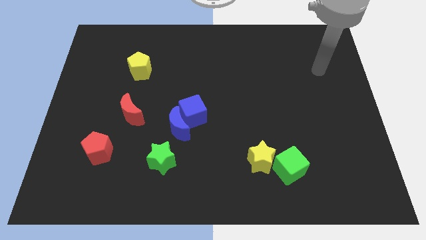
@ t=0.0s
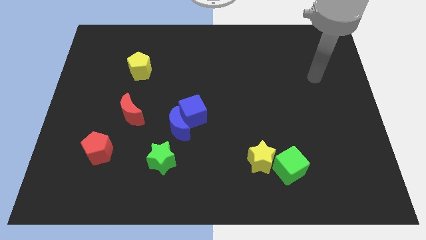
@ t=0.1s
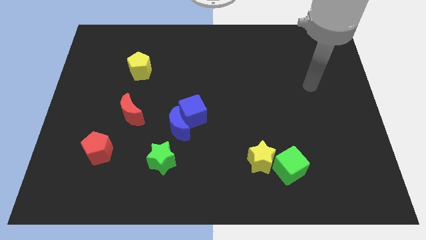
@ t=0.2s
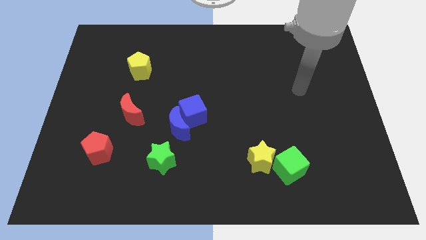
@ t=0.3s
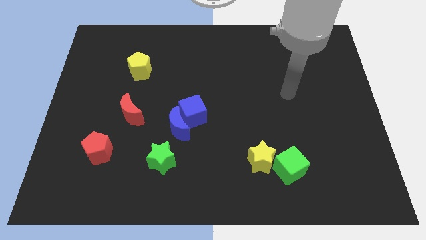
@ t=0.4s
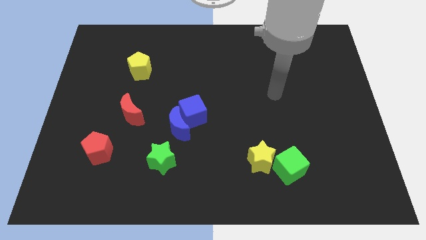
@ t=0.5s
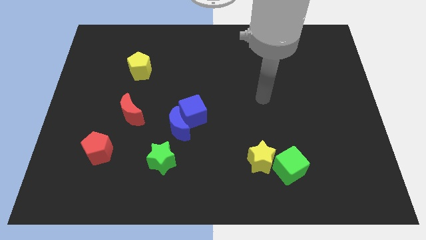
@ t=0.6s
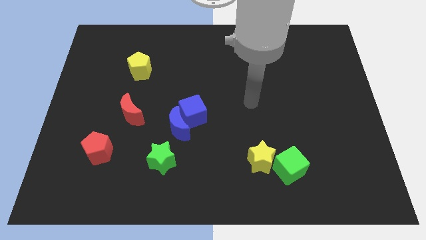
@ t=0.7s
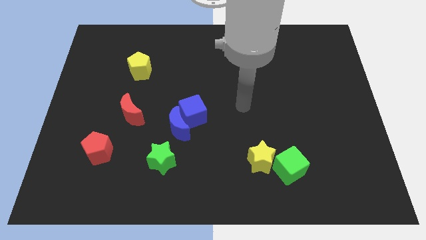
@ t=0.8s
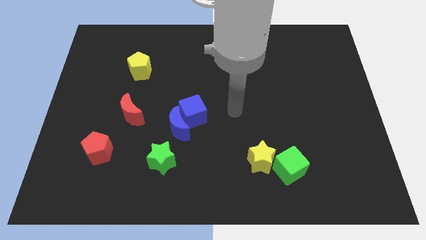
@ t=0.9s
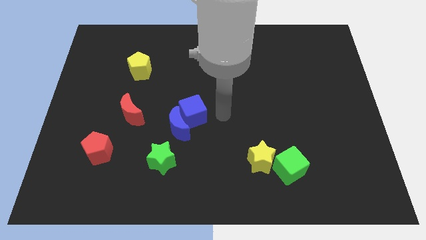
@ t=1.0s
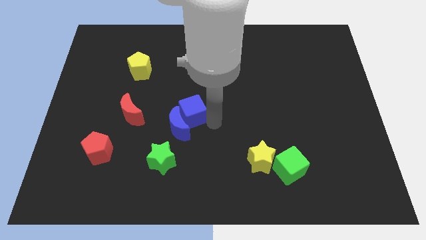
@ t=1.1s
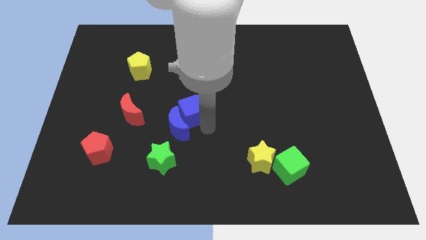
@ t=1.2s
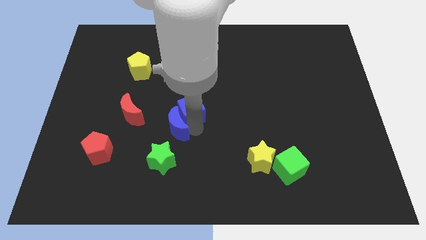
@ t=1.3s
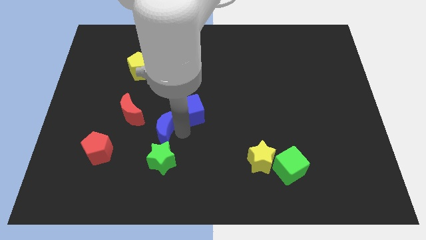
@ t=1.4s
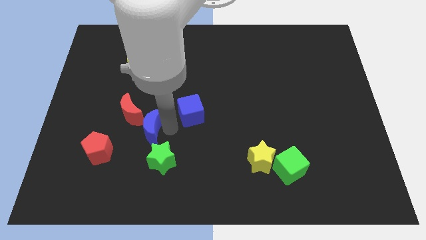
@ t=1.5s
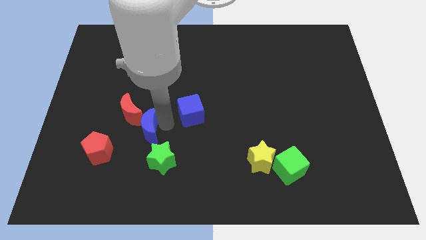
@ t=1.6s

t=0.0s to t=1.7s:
move the blue cube away from the blue moon

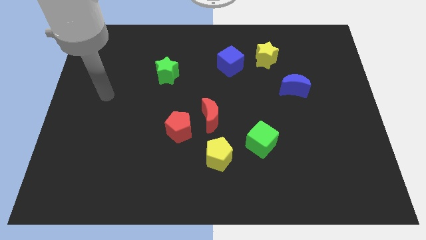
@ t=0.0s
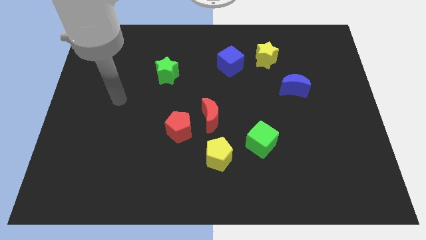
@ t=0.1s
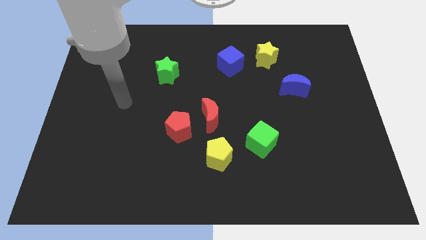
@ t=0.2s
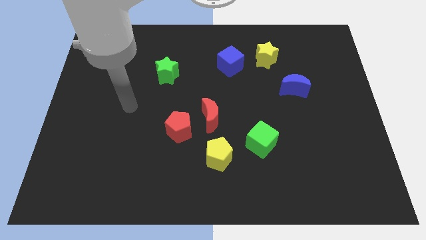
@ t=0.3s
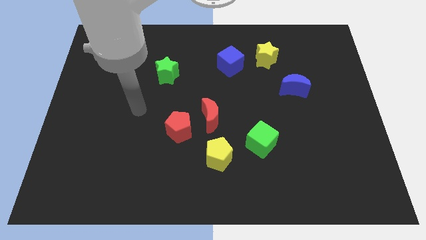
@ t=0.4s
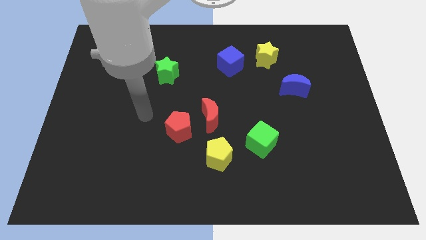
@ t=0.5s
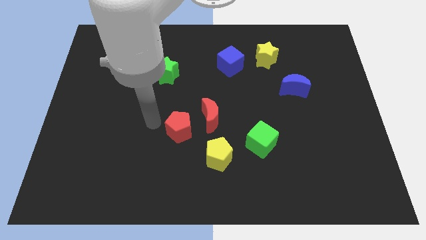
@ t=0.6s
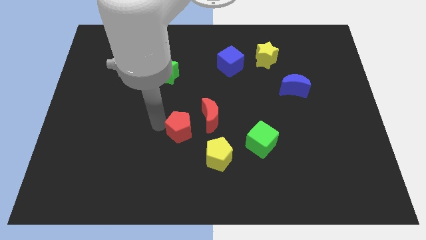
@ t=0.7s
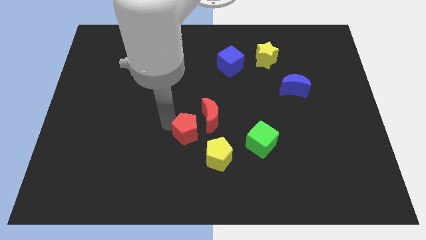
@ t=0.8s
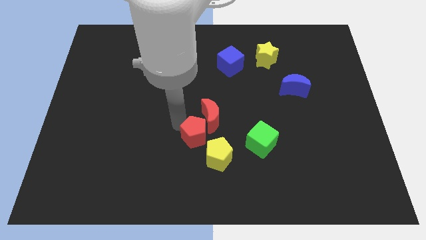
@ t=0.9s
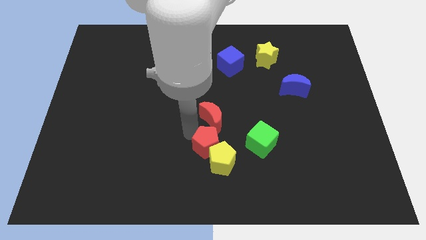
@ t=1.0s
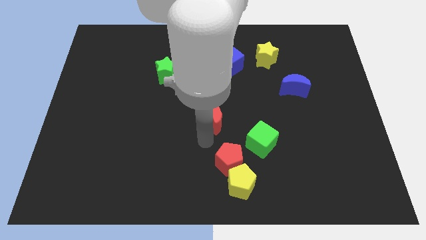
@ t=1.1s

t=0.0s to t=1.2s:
pull the red moon apart from the red pentagon

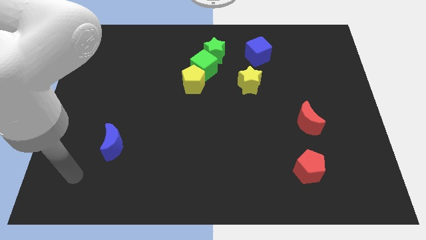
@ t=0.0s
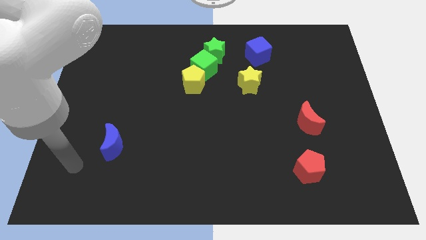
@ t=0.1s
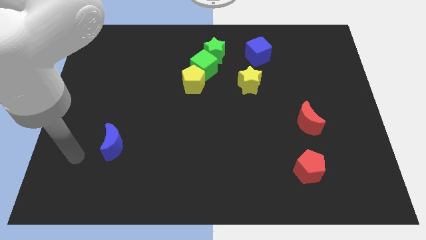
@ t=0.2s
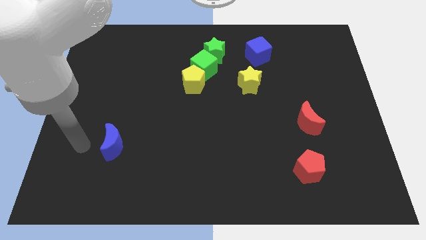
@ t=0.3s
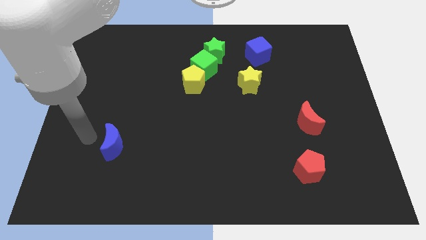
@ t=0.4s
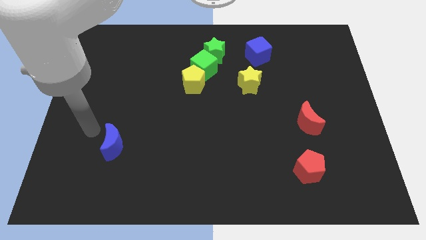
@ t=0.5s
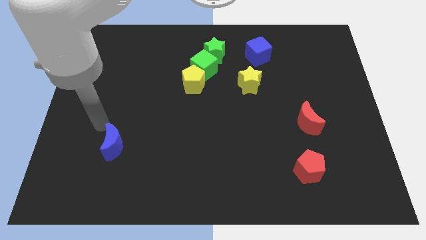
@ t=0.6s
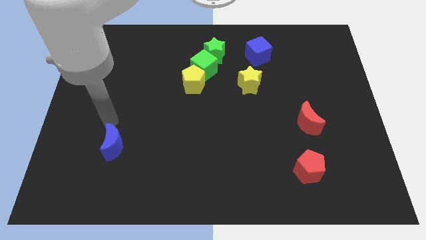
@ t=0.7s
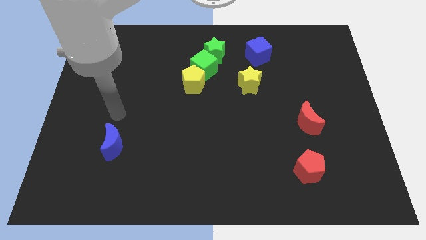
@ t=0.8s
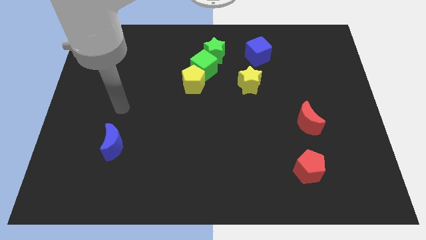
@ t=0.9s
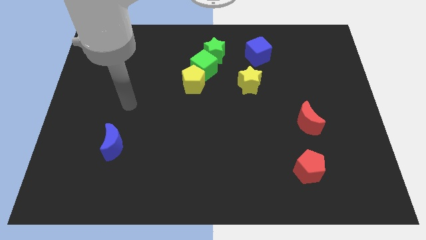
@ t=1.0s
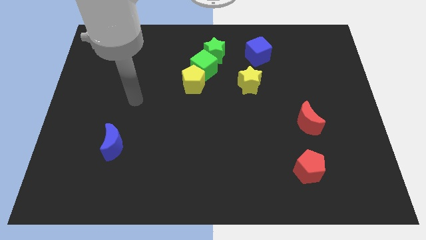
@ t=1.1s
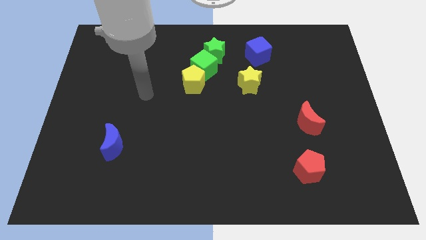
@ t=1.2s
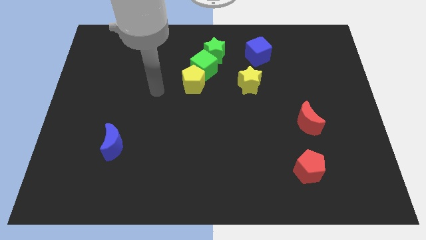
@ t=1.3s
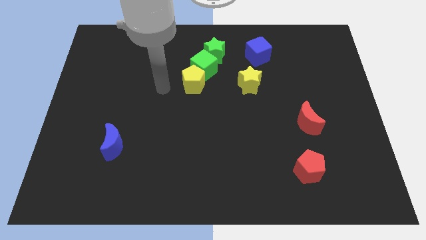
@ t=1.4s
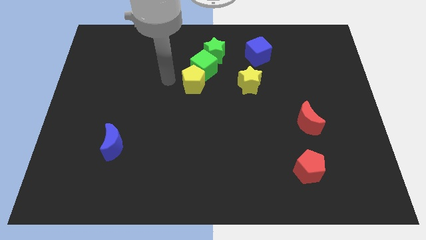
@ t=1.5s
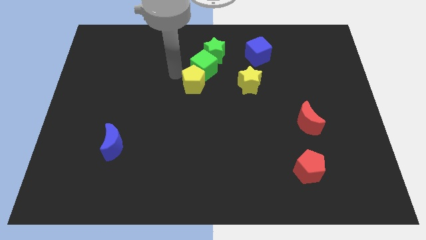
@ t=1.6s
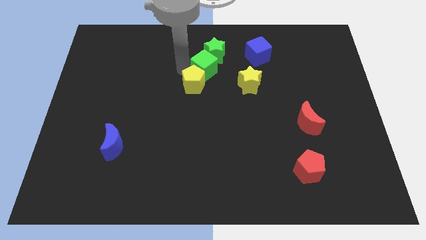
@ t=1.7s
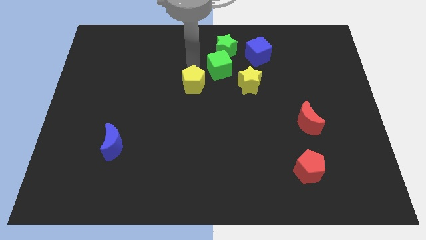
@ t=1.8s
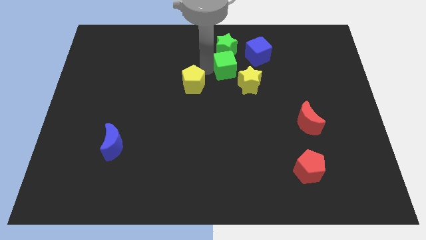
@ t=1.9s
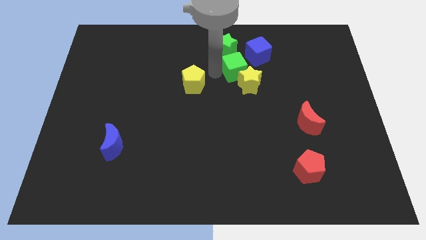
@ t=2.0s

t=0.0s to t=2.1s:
move the yellow pentagon away from the green cube

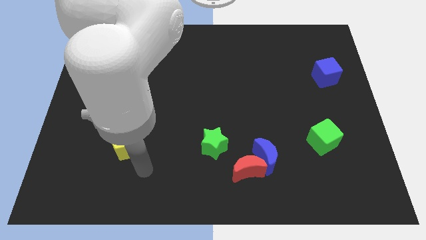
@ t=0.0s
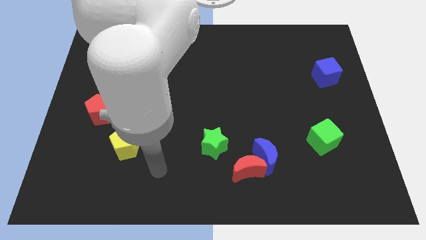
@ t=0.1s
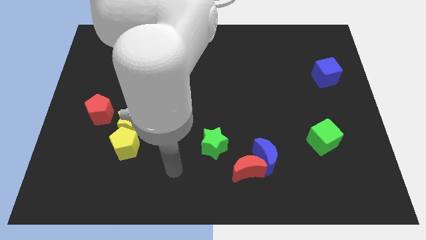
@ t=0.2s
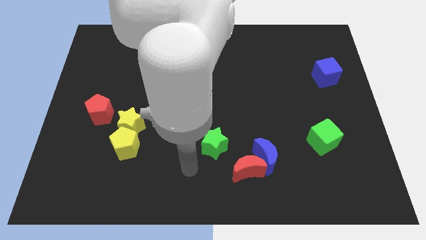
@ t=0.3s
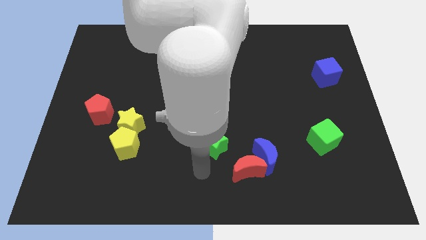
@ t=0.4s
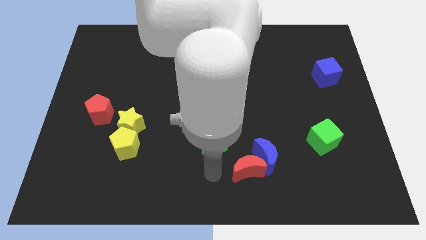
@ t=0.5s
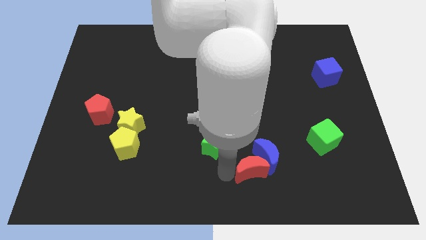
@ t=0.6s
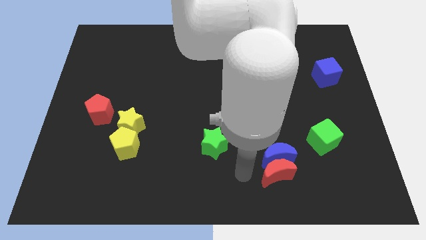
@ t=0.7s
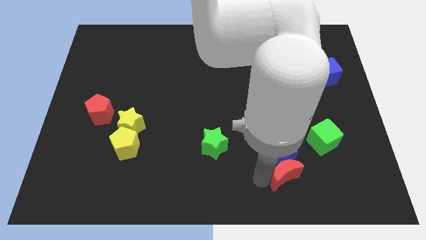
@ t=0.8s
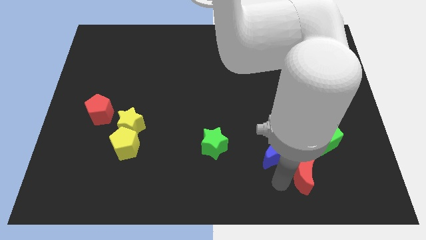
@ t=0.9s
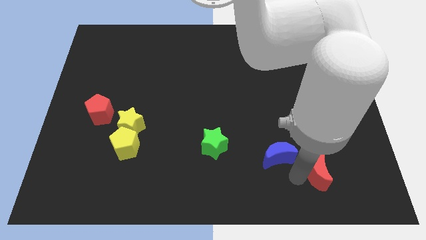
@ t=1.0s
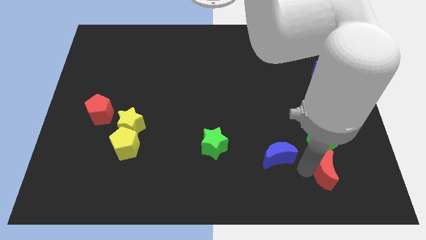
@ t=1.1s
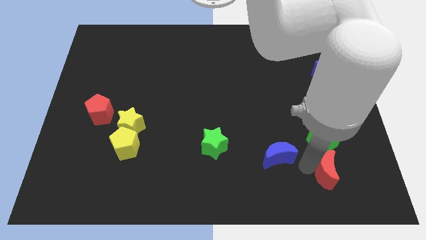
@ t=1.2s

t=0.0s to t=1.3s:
separate the blue moon from the red moon

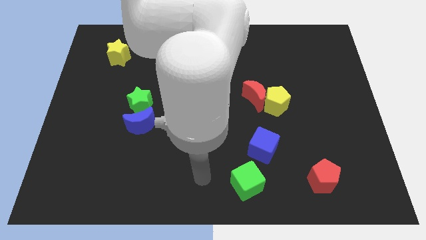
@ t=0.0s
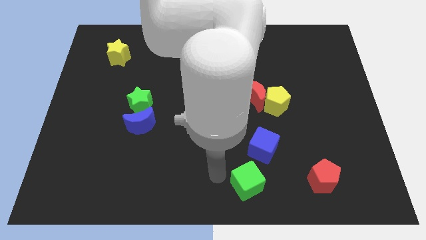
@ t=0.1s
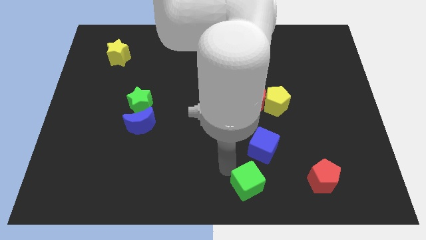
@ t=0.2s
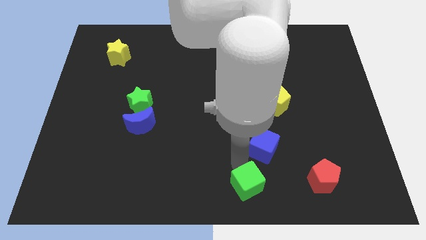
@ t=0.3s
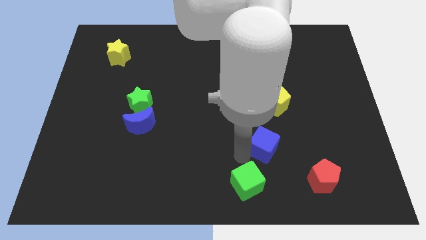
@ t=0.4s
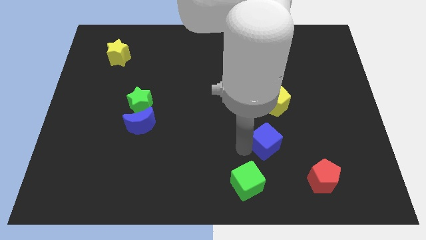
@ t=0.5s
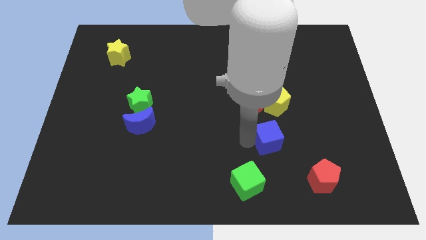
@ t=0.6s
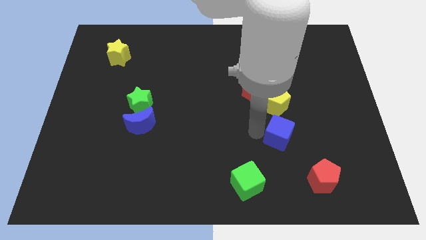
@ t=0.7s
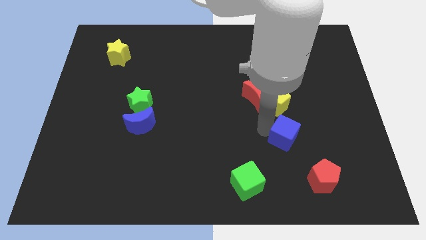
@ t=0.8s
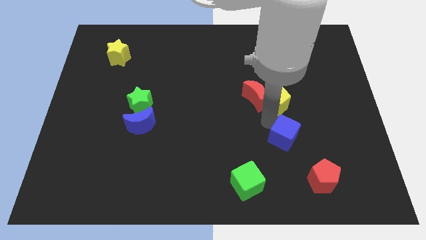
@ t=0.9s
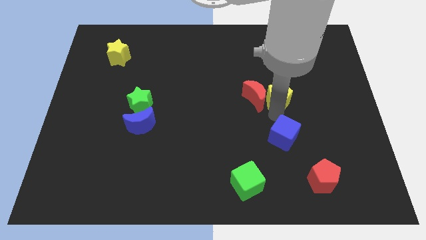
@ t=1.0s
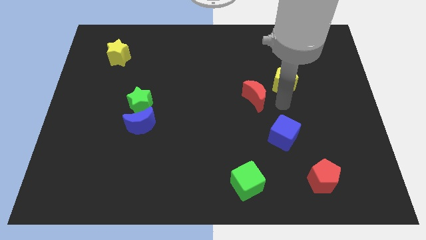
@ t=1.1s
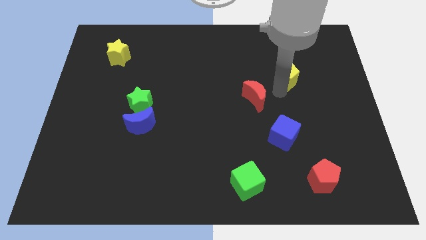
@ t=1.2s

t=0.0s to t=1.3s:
move the red moon away from the yellow pentagon

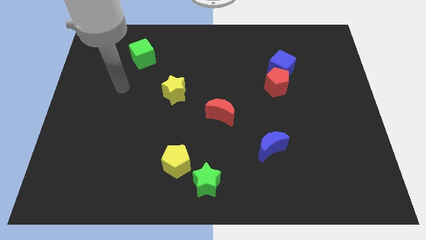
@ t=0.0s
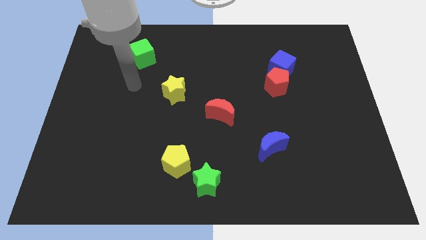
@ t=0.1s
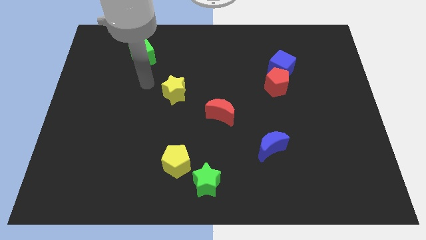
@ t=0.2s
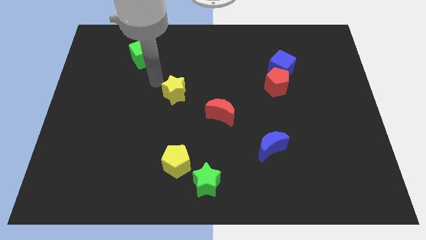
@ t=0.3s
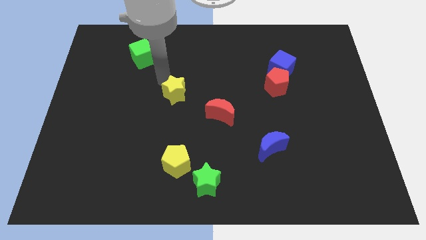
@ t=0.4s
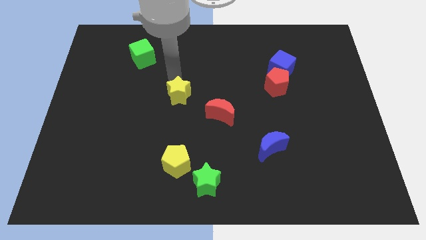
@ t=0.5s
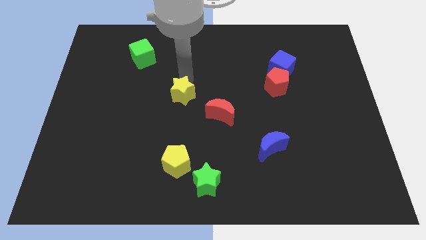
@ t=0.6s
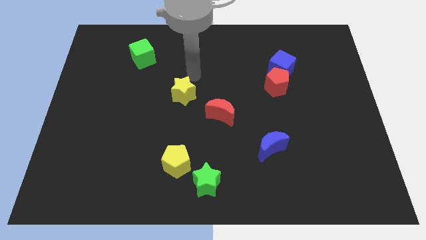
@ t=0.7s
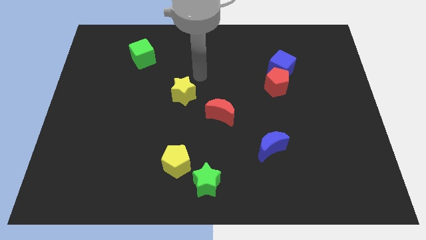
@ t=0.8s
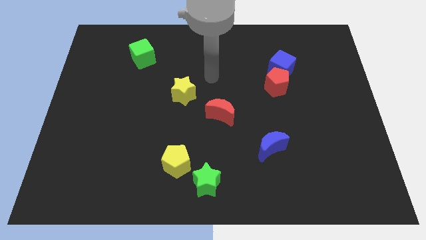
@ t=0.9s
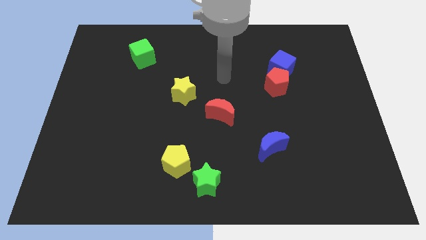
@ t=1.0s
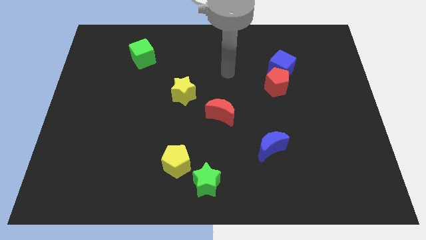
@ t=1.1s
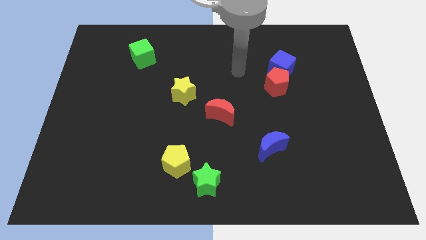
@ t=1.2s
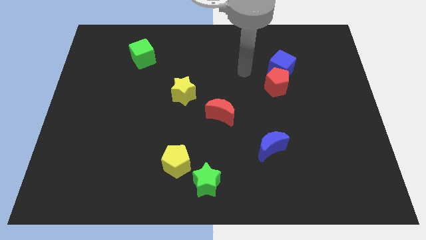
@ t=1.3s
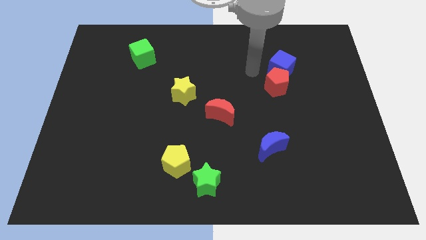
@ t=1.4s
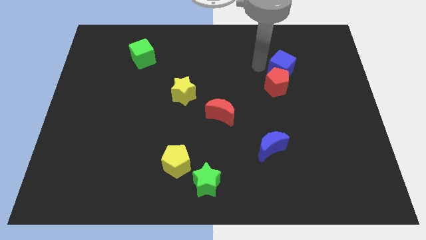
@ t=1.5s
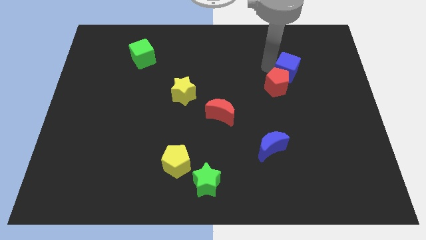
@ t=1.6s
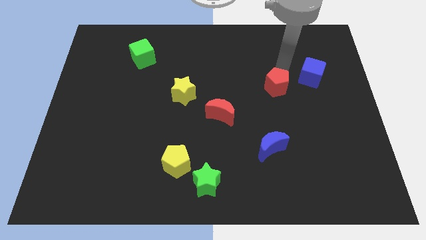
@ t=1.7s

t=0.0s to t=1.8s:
separate the red pentagon from the blue cube
